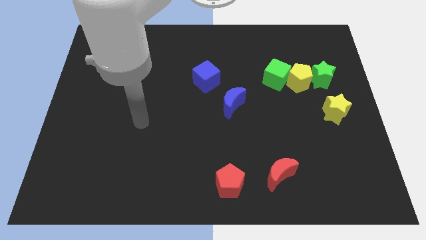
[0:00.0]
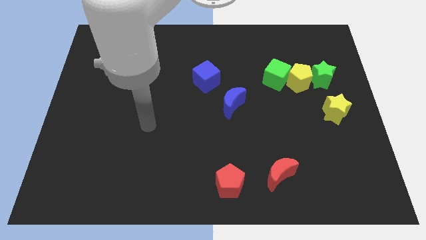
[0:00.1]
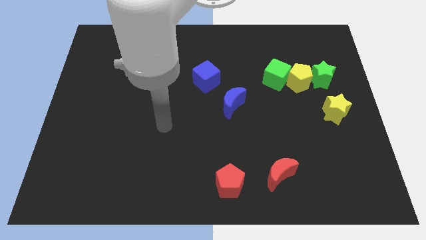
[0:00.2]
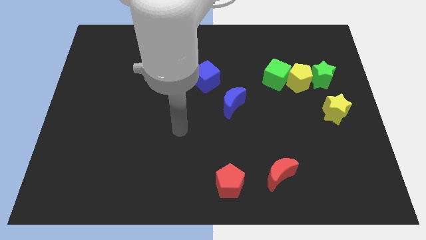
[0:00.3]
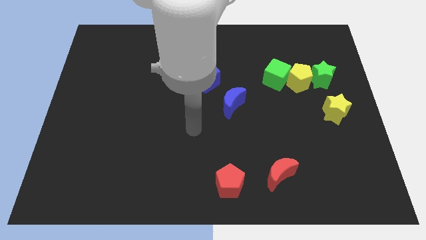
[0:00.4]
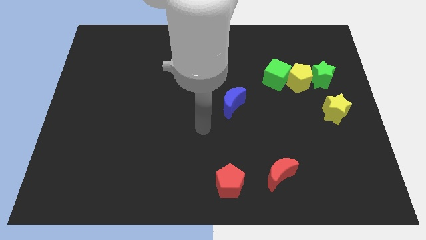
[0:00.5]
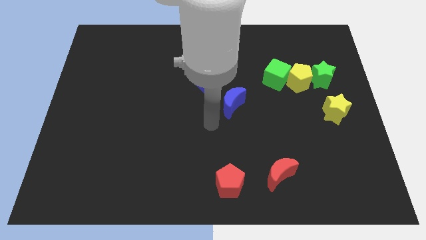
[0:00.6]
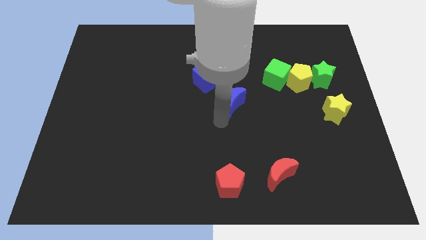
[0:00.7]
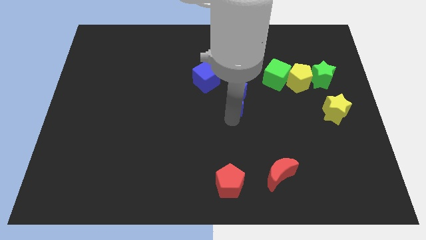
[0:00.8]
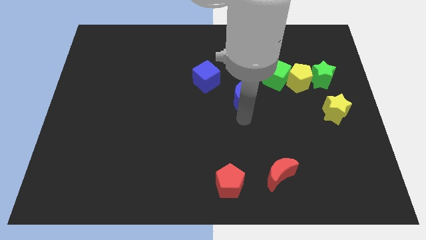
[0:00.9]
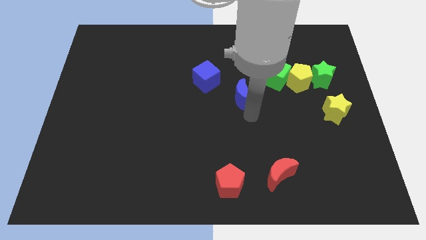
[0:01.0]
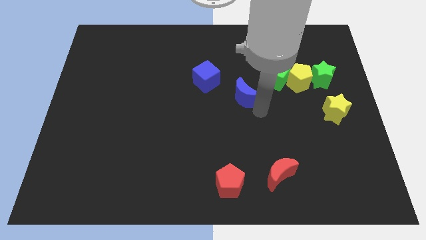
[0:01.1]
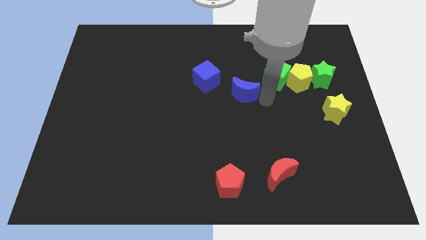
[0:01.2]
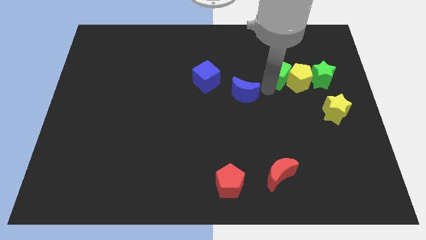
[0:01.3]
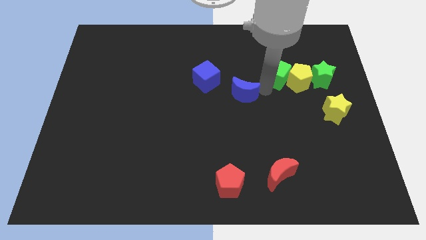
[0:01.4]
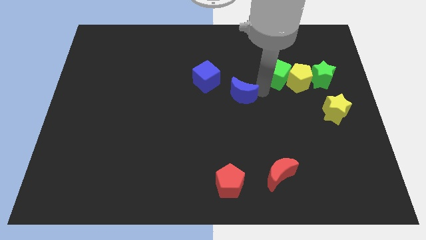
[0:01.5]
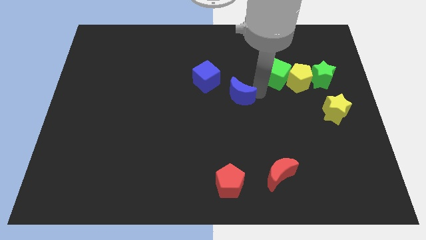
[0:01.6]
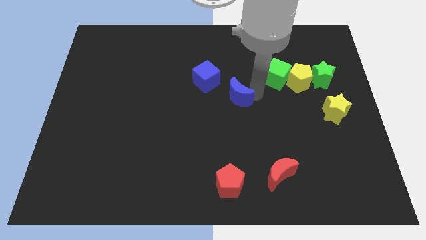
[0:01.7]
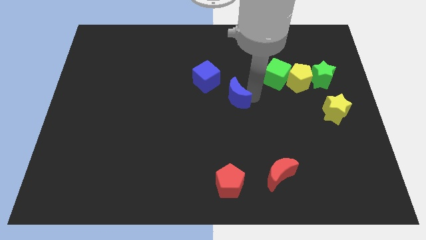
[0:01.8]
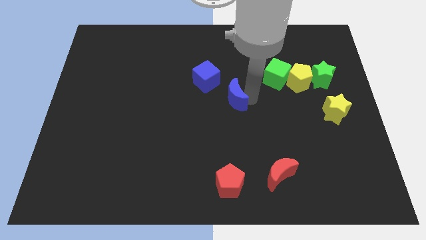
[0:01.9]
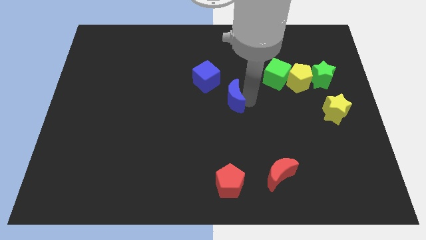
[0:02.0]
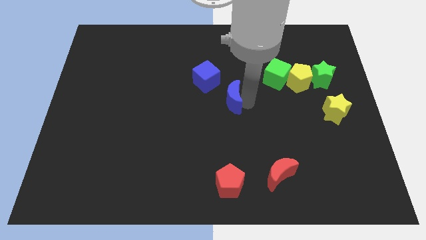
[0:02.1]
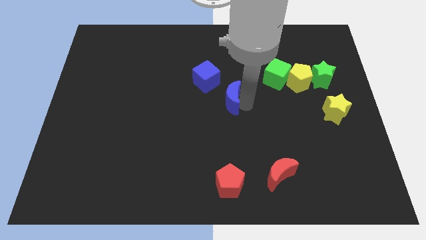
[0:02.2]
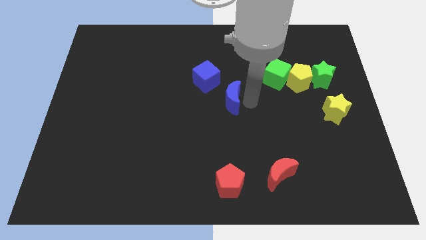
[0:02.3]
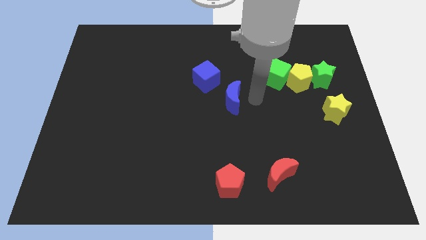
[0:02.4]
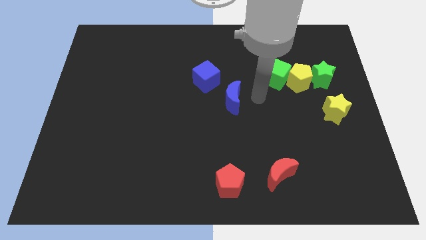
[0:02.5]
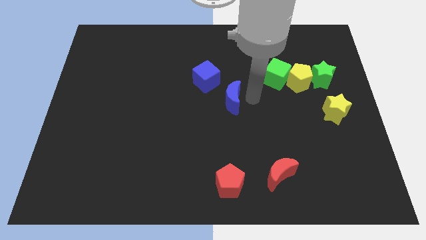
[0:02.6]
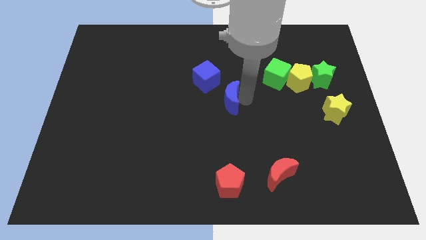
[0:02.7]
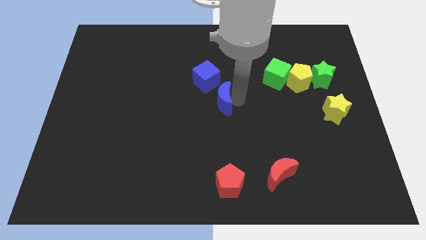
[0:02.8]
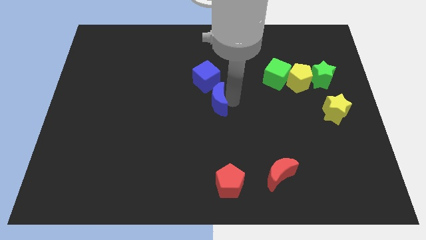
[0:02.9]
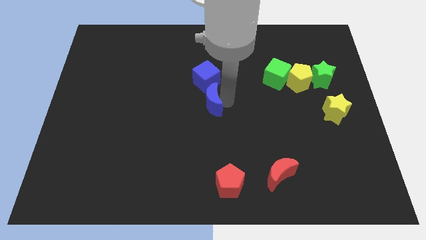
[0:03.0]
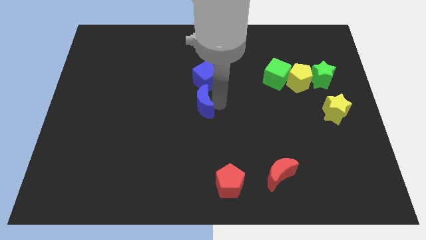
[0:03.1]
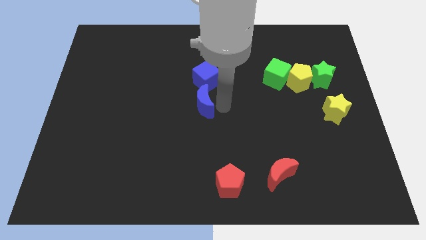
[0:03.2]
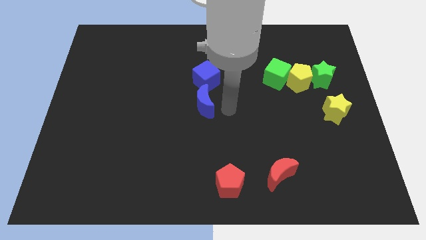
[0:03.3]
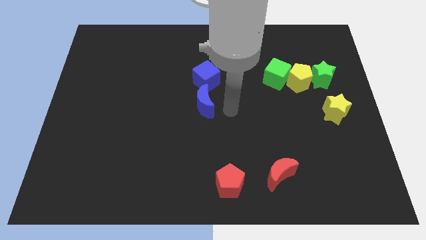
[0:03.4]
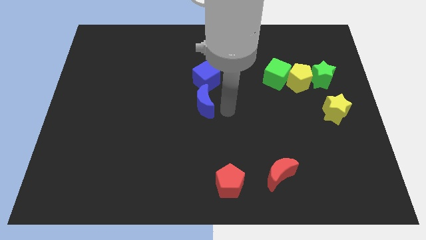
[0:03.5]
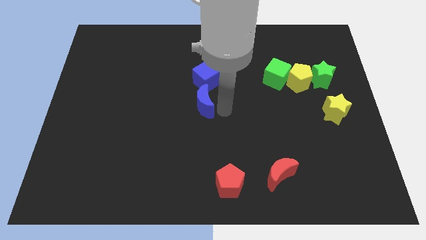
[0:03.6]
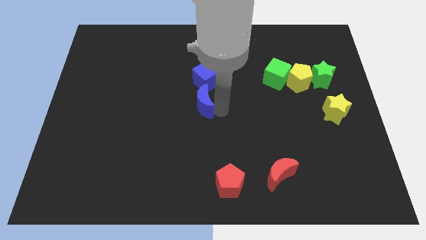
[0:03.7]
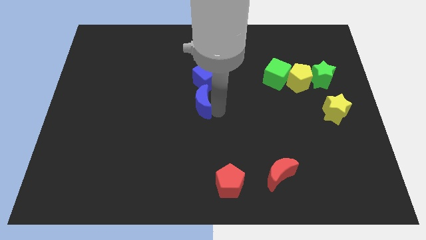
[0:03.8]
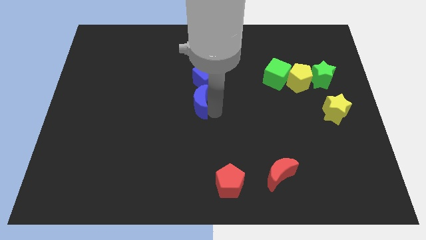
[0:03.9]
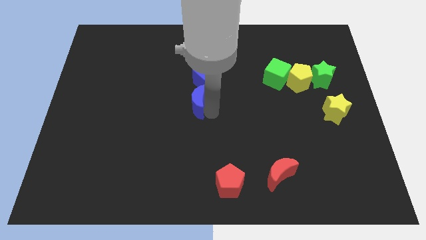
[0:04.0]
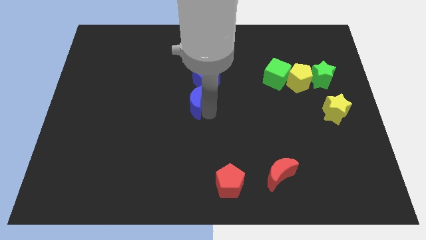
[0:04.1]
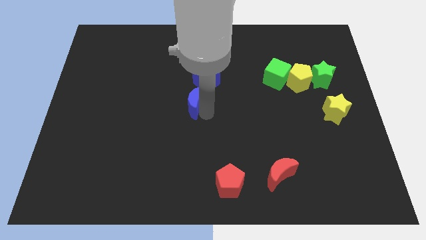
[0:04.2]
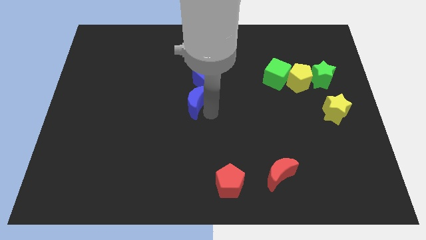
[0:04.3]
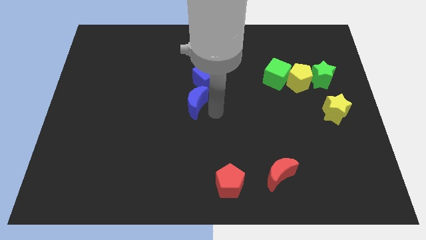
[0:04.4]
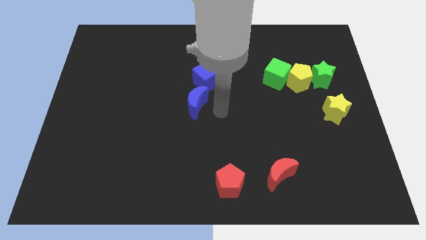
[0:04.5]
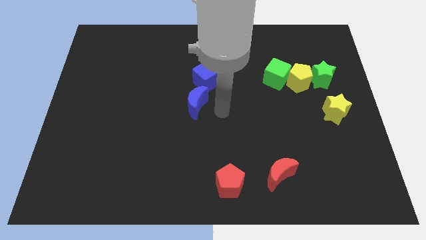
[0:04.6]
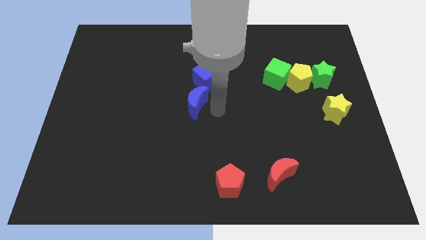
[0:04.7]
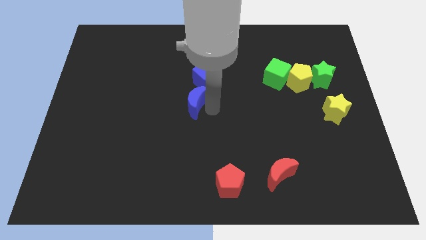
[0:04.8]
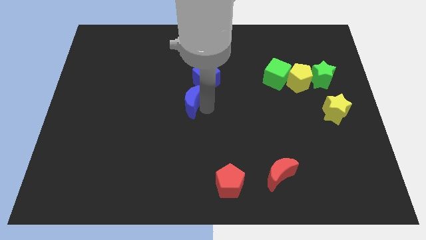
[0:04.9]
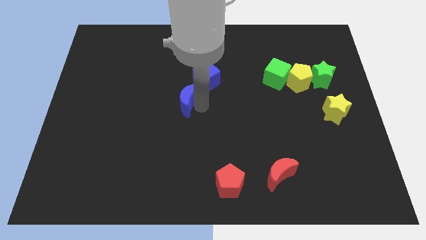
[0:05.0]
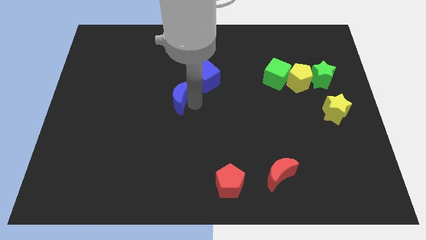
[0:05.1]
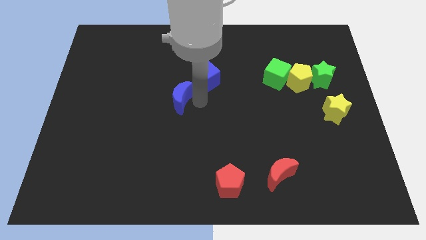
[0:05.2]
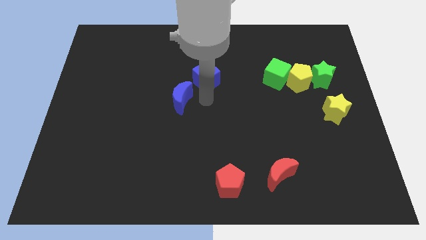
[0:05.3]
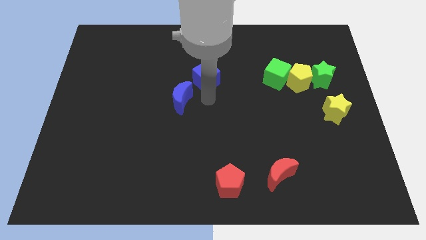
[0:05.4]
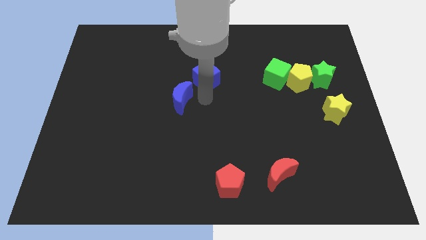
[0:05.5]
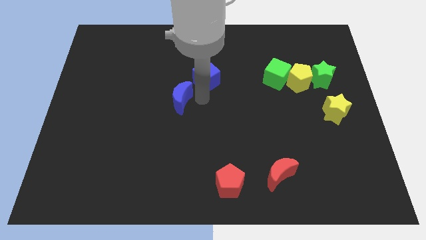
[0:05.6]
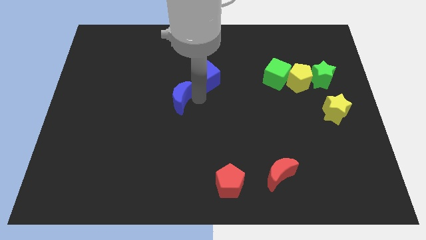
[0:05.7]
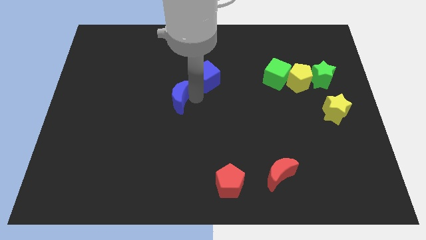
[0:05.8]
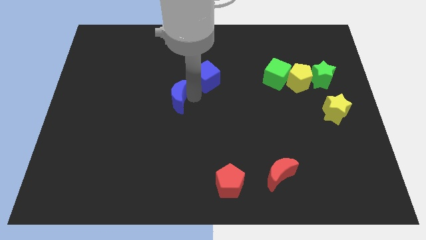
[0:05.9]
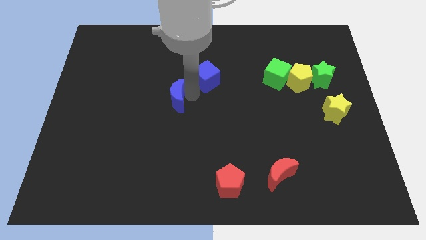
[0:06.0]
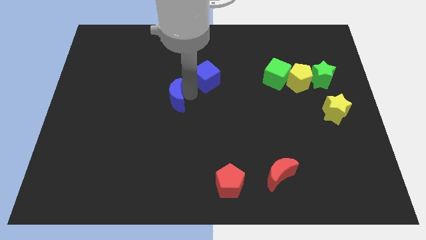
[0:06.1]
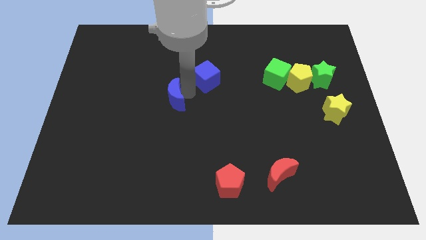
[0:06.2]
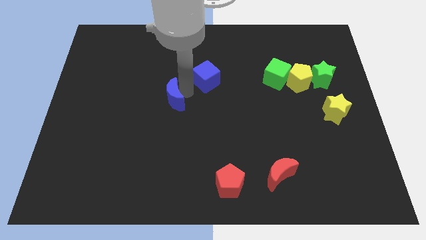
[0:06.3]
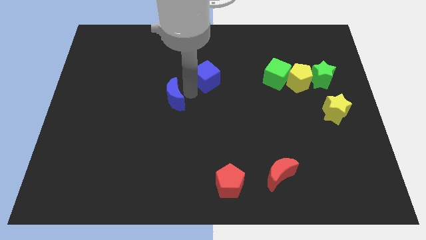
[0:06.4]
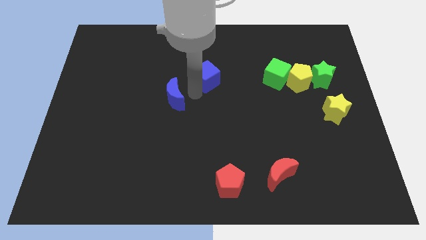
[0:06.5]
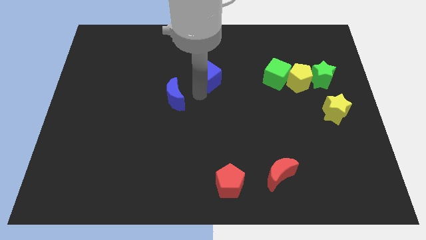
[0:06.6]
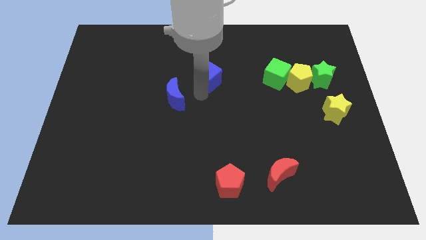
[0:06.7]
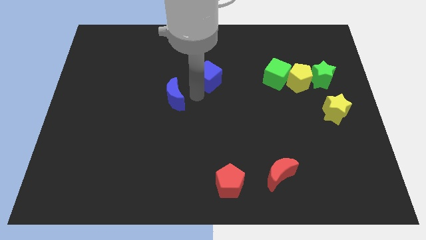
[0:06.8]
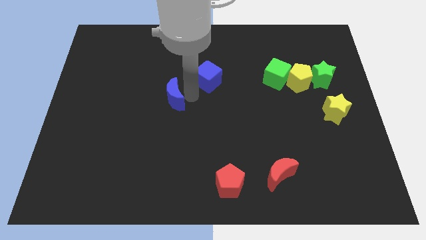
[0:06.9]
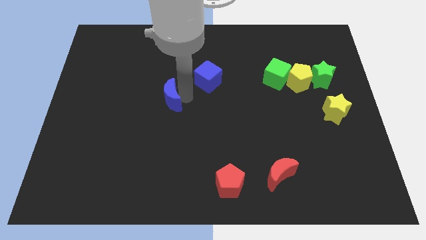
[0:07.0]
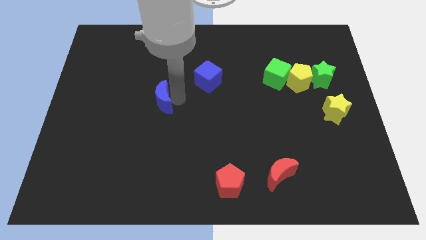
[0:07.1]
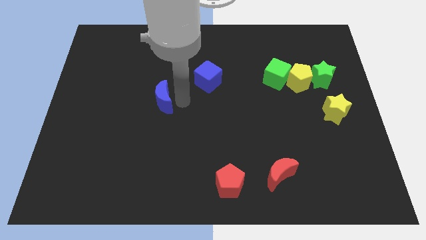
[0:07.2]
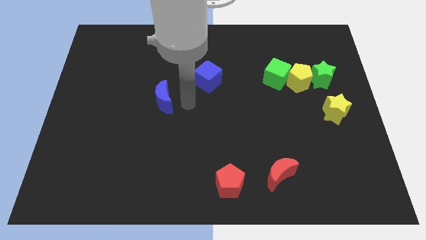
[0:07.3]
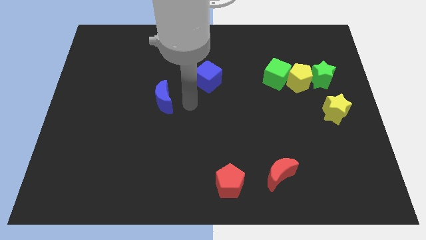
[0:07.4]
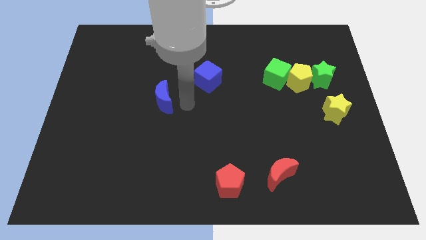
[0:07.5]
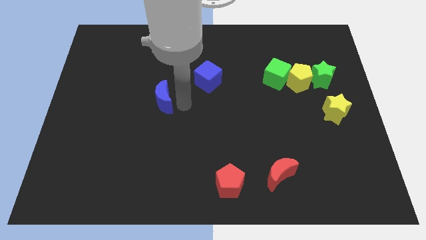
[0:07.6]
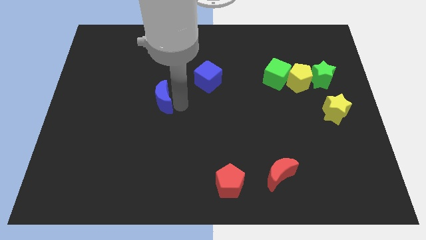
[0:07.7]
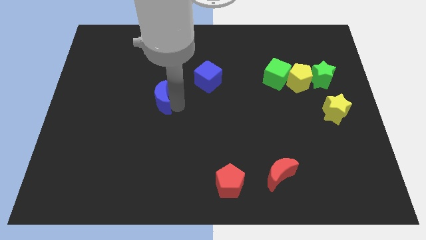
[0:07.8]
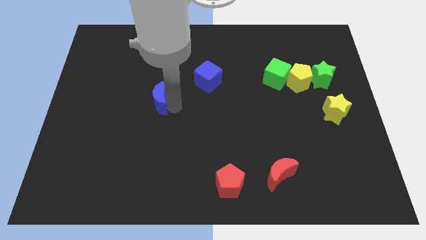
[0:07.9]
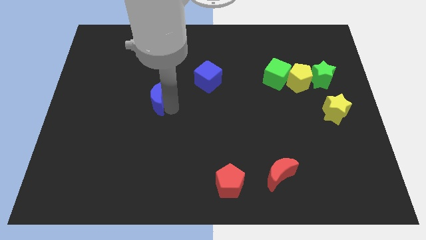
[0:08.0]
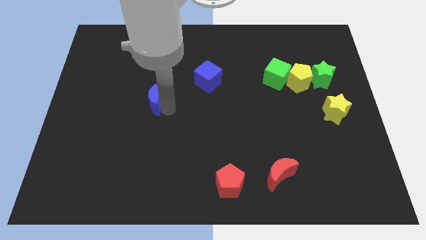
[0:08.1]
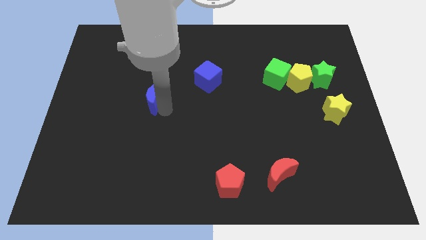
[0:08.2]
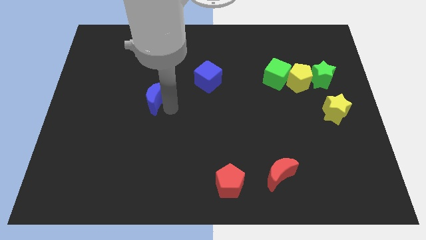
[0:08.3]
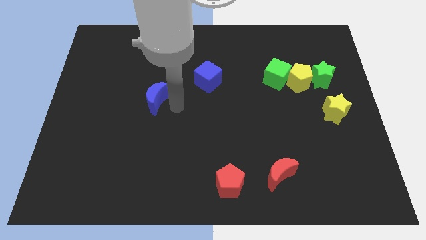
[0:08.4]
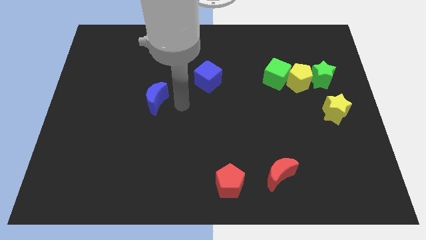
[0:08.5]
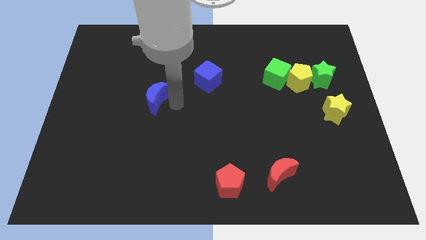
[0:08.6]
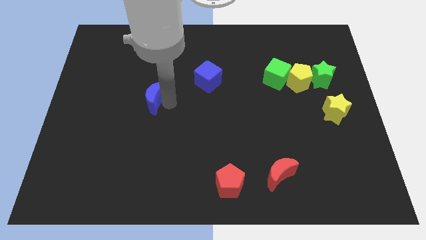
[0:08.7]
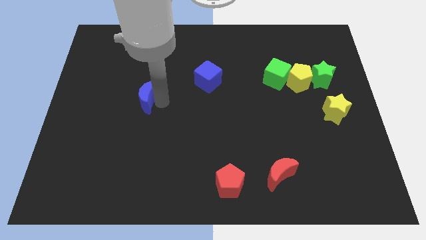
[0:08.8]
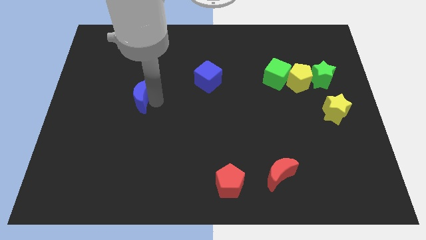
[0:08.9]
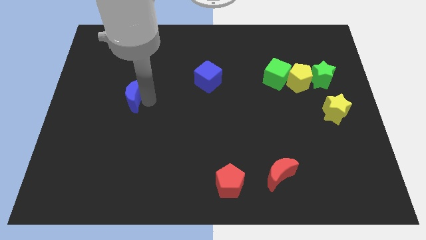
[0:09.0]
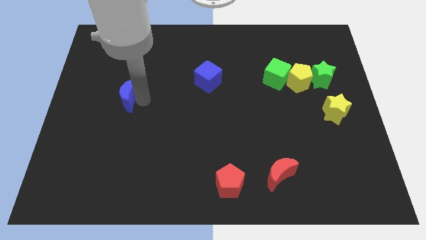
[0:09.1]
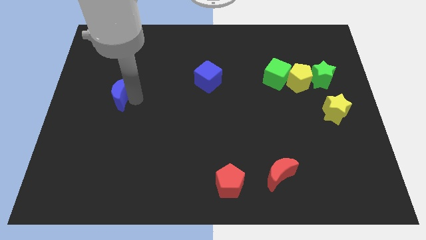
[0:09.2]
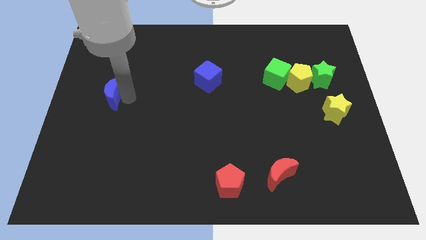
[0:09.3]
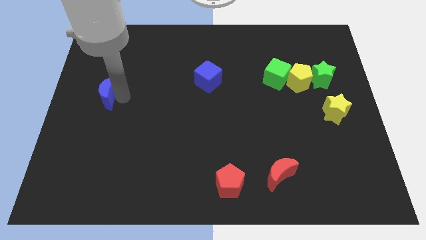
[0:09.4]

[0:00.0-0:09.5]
move the blue moon to the left side of the board
